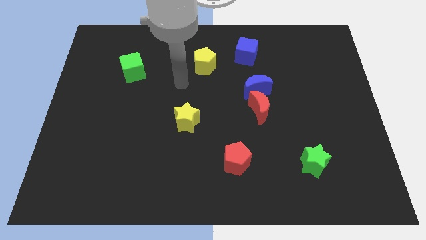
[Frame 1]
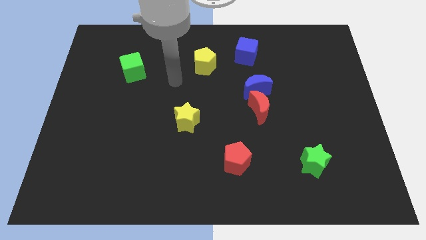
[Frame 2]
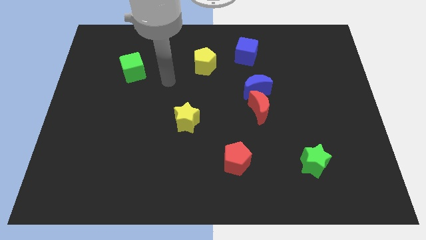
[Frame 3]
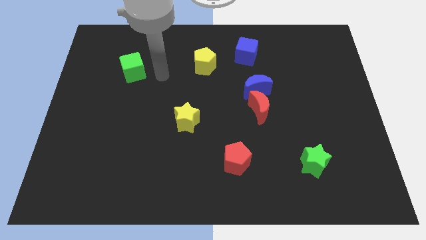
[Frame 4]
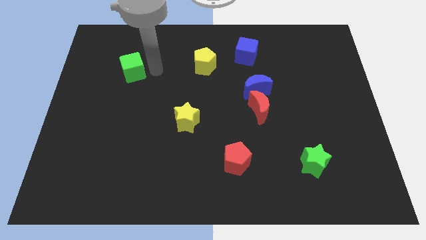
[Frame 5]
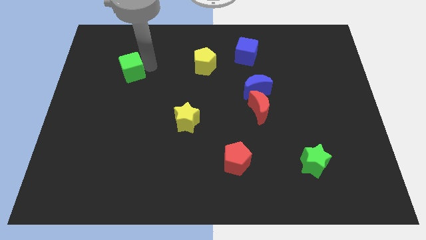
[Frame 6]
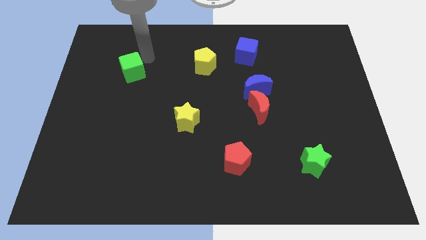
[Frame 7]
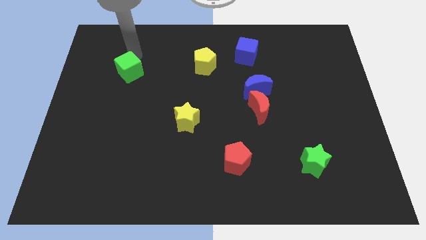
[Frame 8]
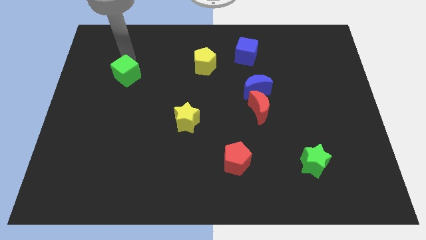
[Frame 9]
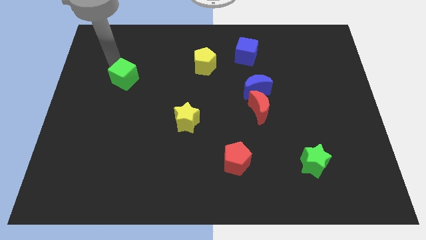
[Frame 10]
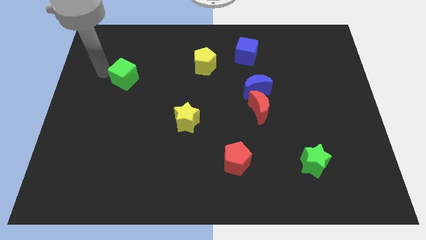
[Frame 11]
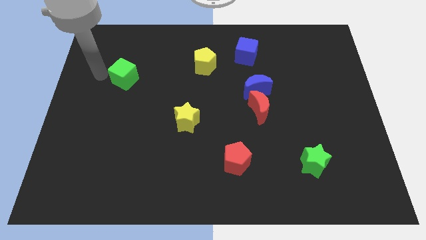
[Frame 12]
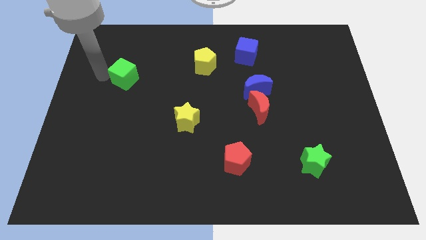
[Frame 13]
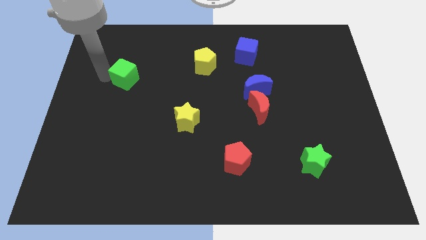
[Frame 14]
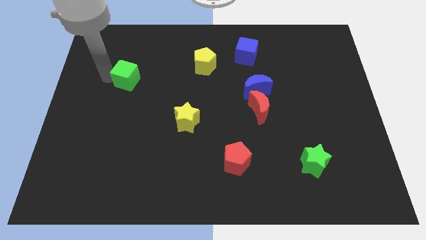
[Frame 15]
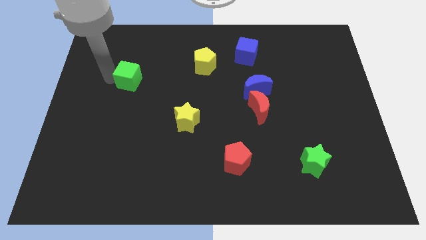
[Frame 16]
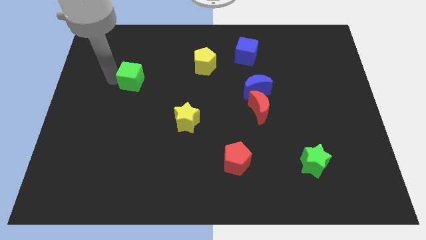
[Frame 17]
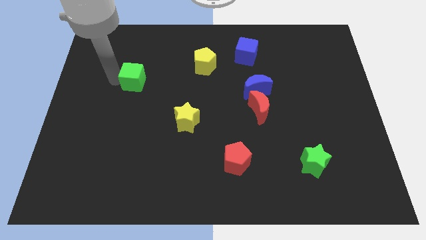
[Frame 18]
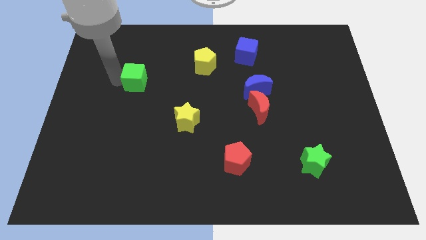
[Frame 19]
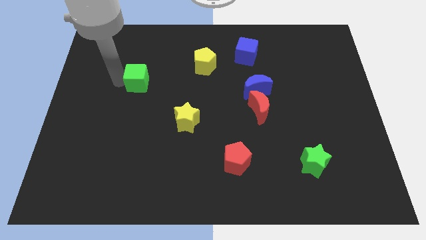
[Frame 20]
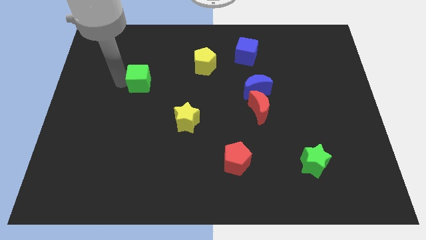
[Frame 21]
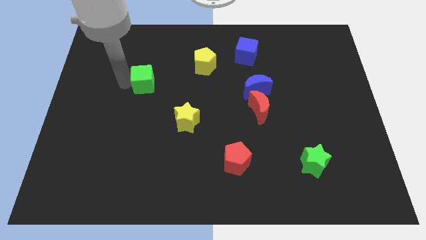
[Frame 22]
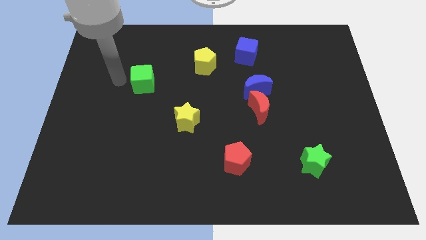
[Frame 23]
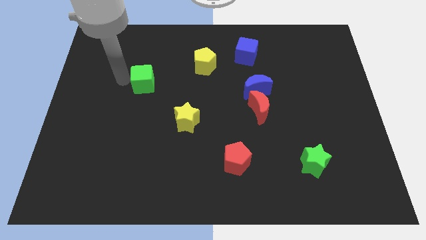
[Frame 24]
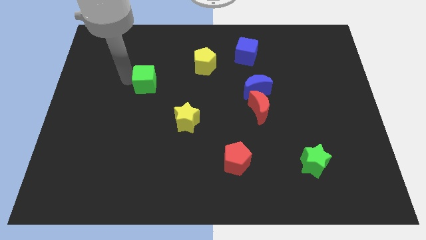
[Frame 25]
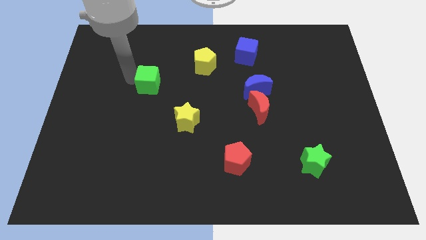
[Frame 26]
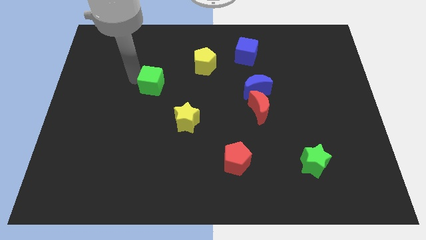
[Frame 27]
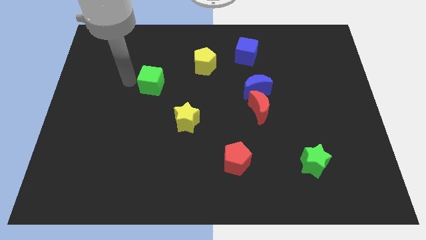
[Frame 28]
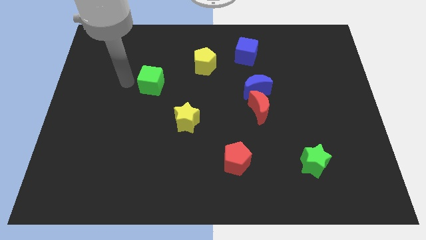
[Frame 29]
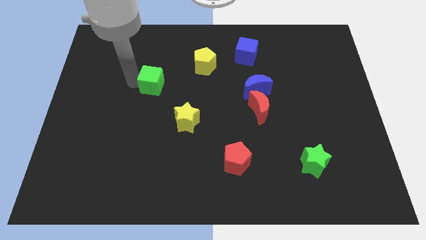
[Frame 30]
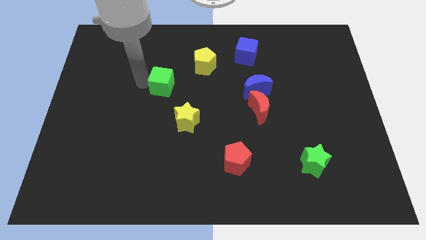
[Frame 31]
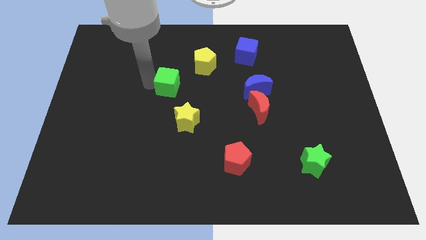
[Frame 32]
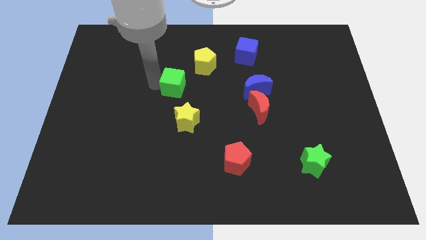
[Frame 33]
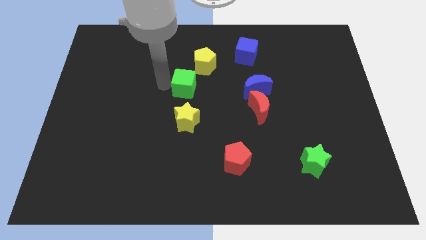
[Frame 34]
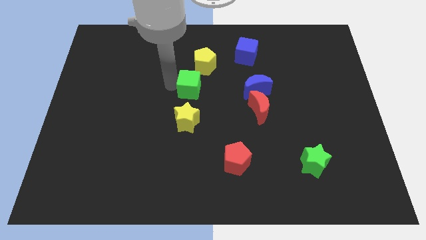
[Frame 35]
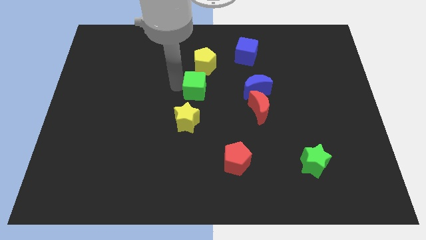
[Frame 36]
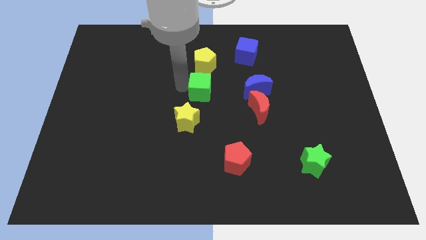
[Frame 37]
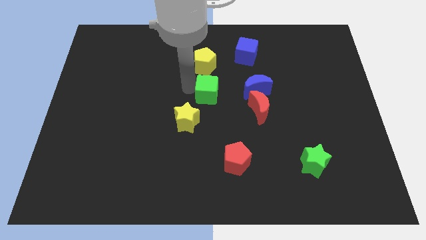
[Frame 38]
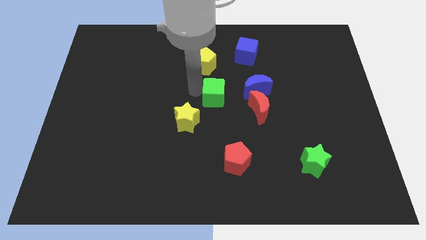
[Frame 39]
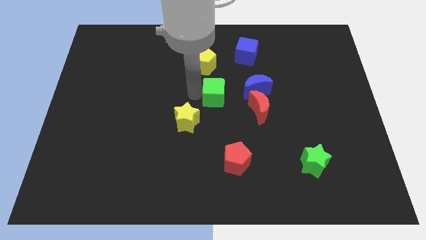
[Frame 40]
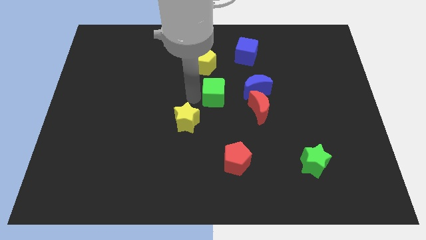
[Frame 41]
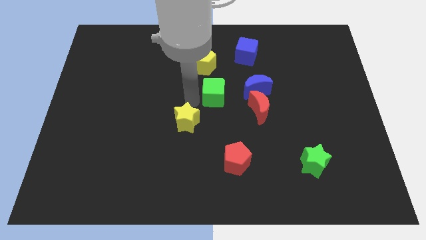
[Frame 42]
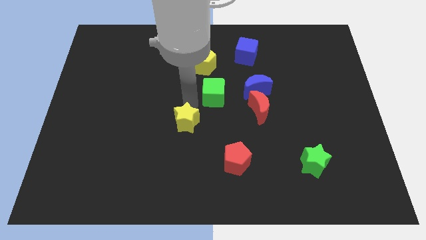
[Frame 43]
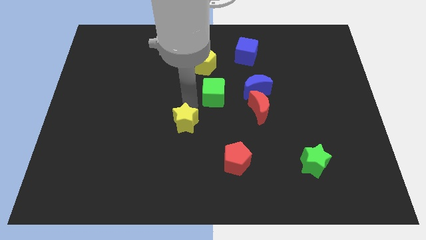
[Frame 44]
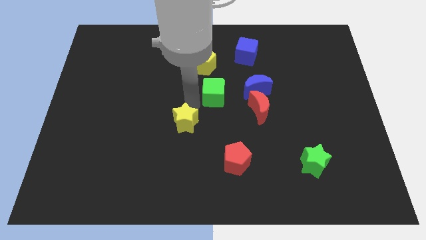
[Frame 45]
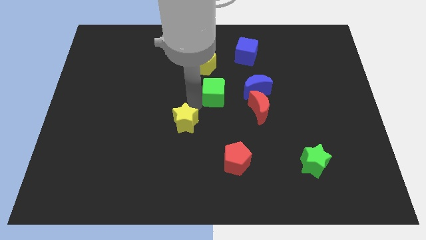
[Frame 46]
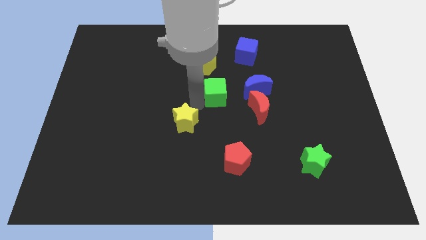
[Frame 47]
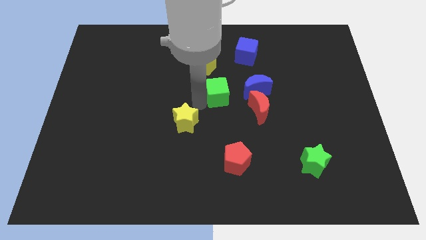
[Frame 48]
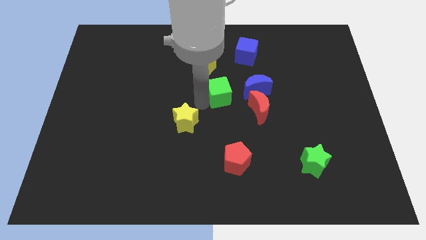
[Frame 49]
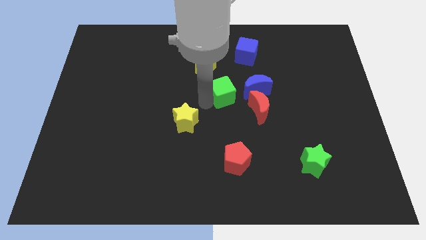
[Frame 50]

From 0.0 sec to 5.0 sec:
move the green cube right

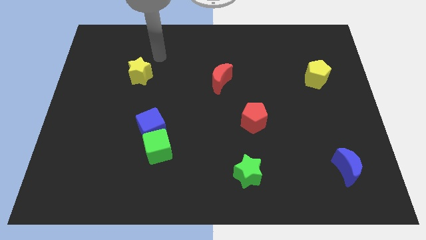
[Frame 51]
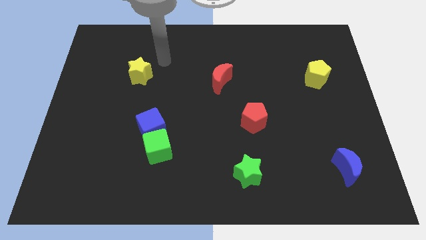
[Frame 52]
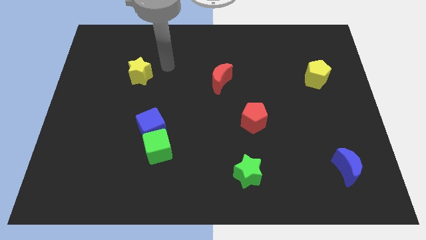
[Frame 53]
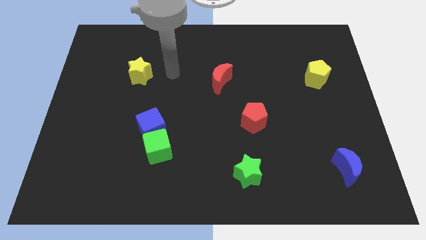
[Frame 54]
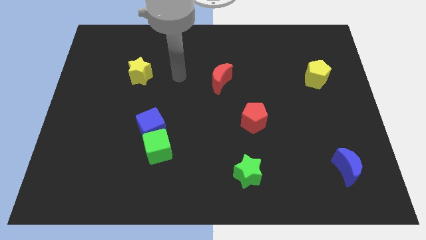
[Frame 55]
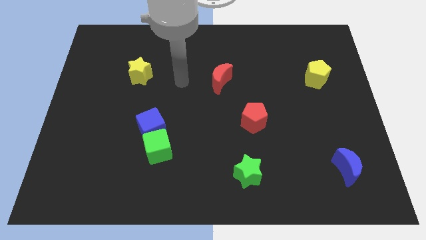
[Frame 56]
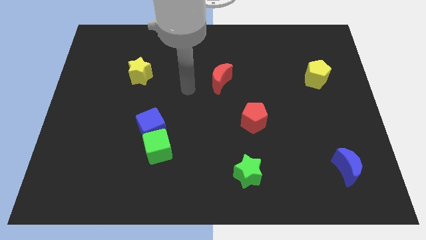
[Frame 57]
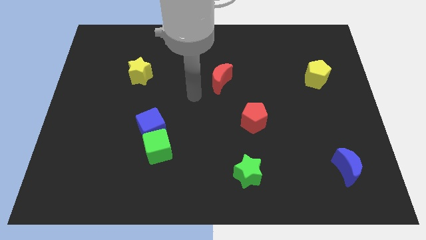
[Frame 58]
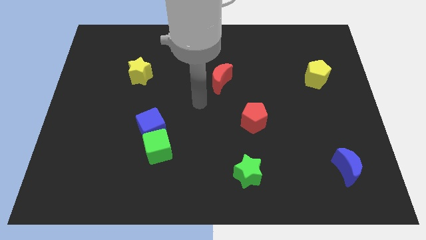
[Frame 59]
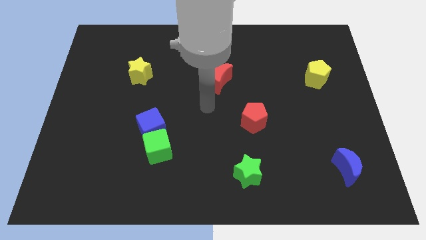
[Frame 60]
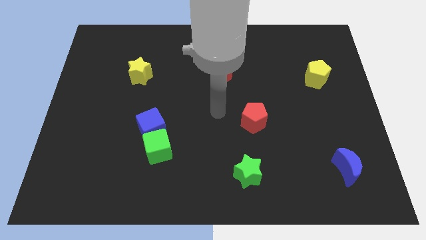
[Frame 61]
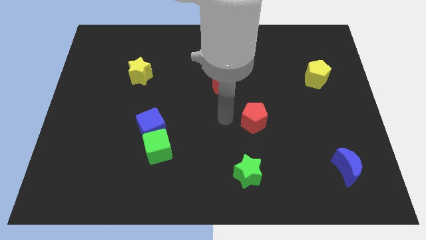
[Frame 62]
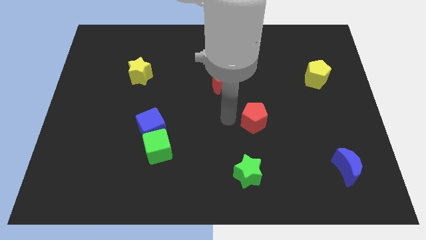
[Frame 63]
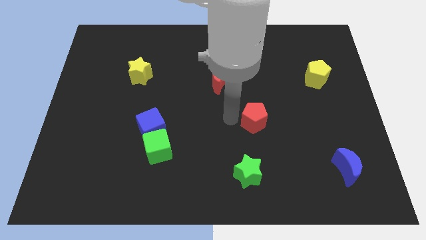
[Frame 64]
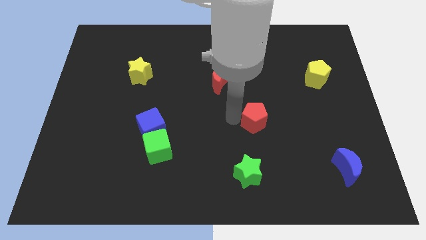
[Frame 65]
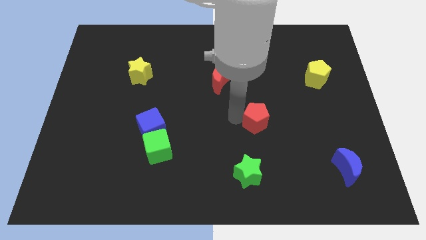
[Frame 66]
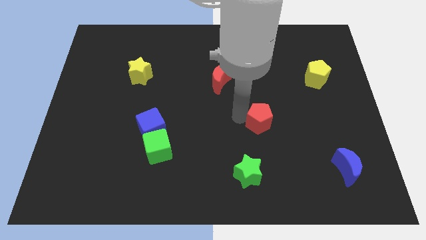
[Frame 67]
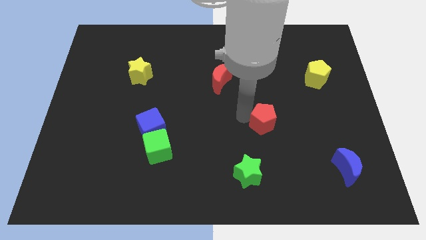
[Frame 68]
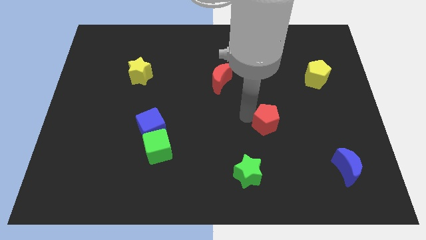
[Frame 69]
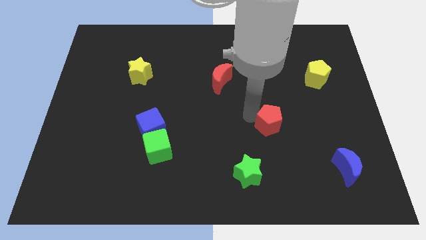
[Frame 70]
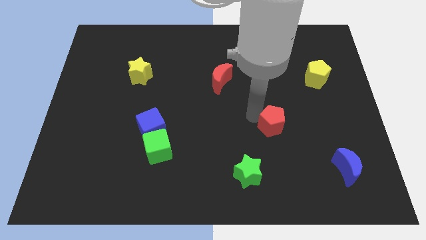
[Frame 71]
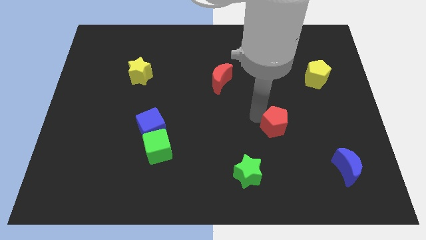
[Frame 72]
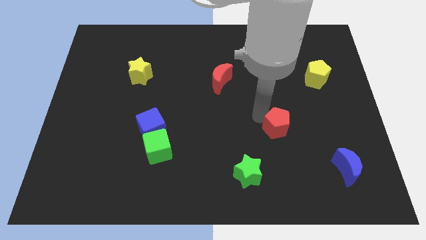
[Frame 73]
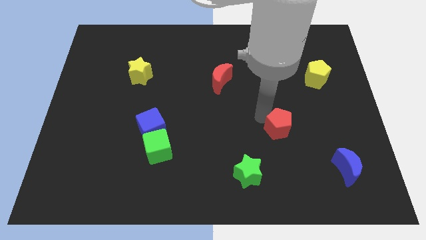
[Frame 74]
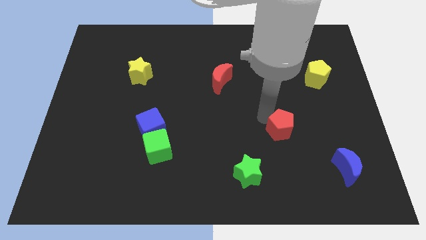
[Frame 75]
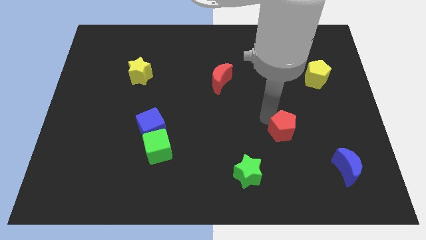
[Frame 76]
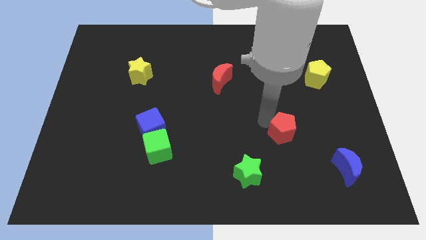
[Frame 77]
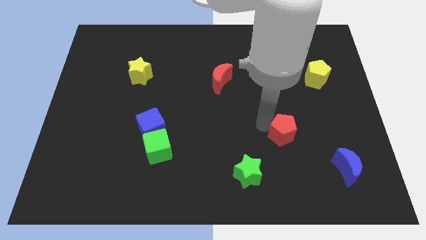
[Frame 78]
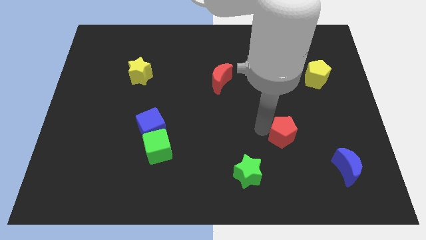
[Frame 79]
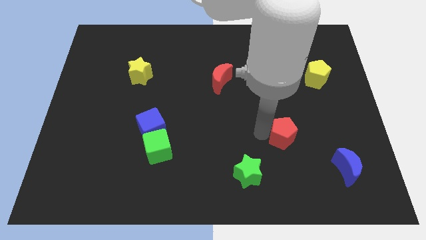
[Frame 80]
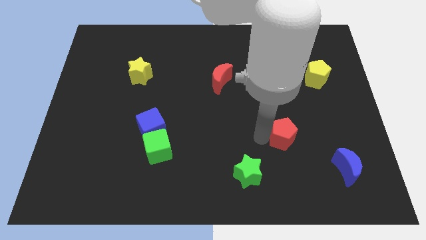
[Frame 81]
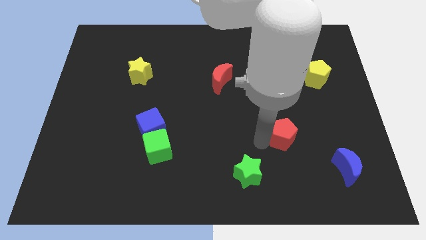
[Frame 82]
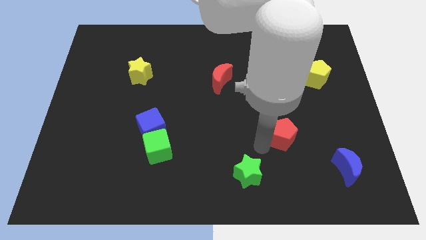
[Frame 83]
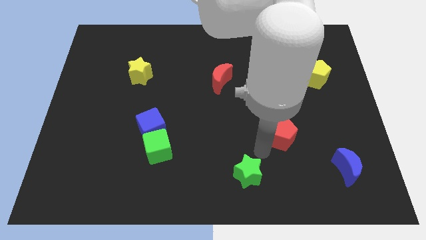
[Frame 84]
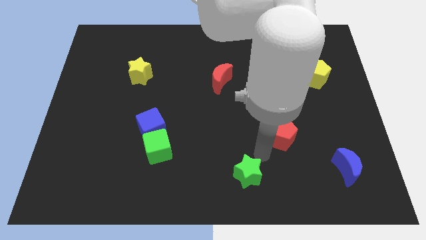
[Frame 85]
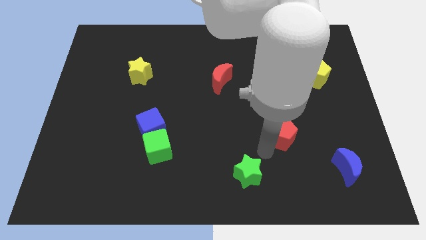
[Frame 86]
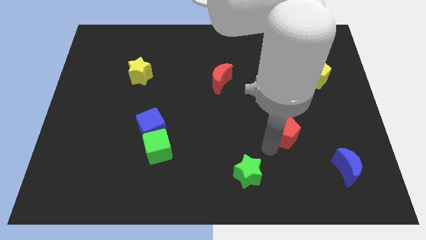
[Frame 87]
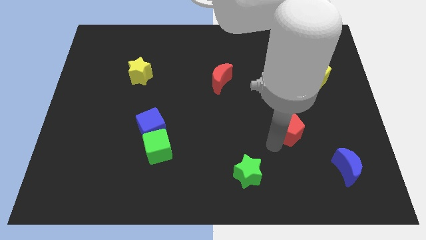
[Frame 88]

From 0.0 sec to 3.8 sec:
slightly move the red pentagon to the right
